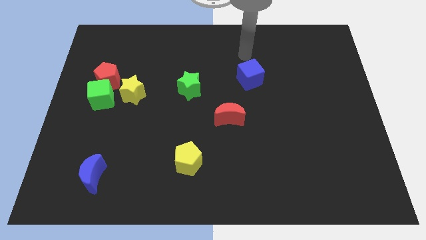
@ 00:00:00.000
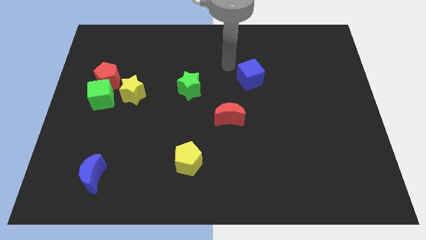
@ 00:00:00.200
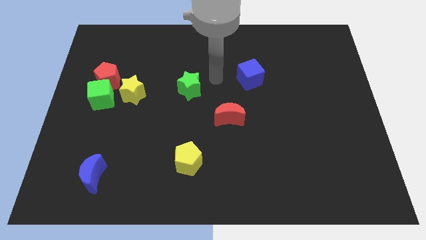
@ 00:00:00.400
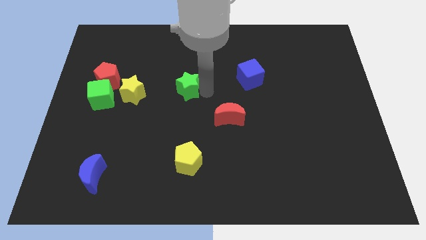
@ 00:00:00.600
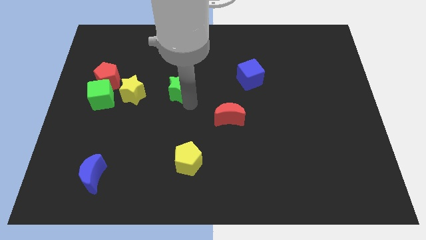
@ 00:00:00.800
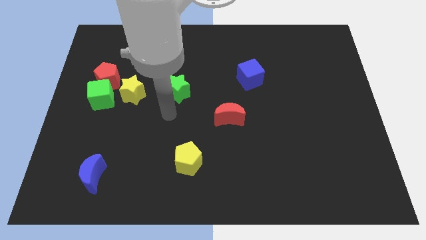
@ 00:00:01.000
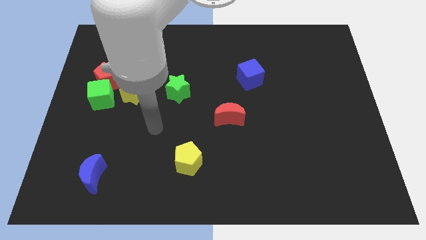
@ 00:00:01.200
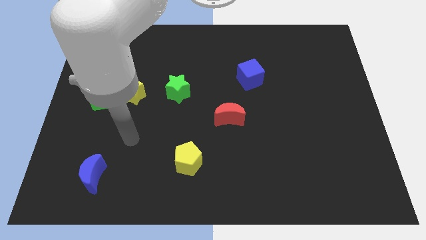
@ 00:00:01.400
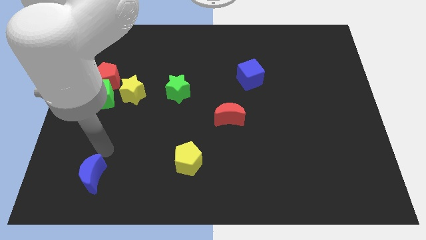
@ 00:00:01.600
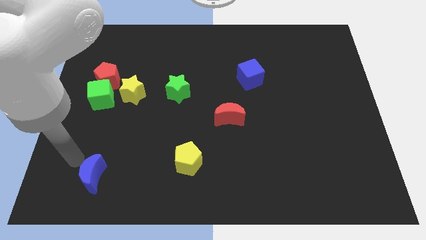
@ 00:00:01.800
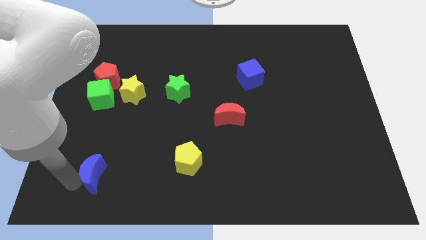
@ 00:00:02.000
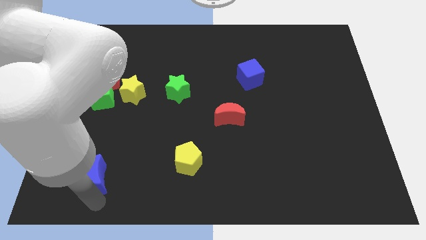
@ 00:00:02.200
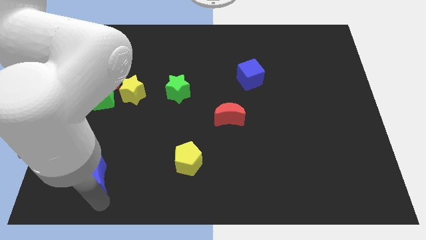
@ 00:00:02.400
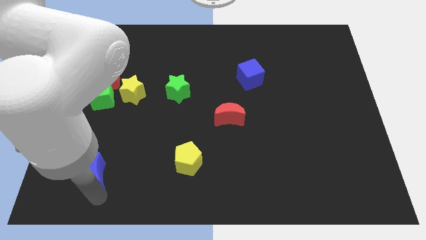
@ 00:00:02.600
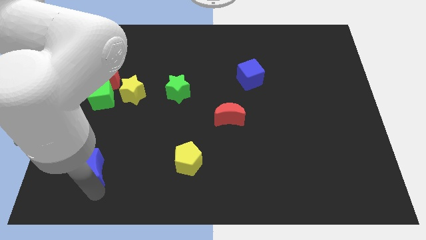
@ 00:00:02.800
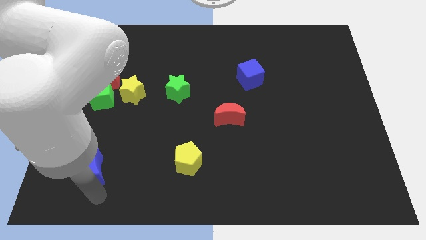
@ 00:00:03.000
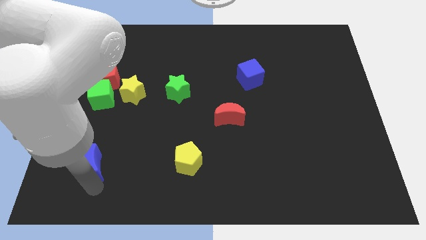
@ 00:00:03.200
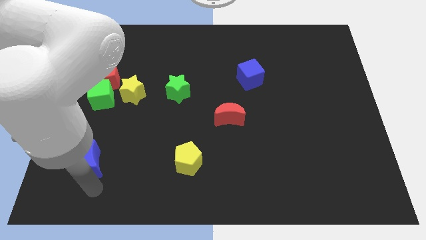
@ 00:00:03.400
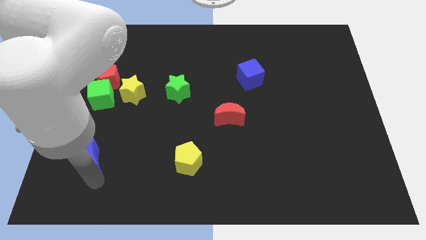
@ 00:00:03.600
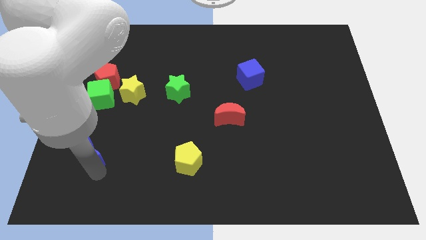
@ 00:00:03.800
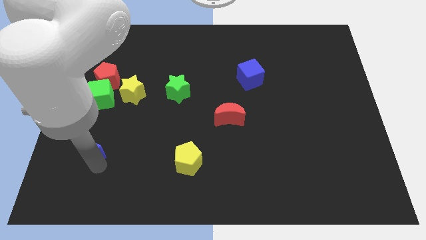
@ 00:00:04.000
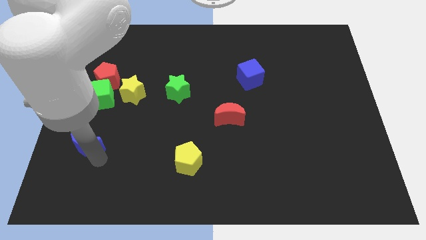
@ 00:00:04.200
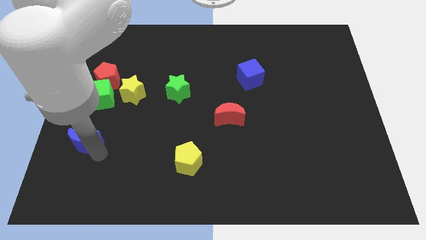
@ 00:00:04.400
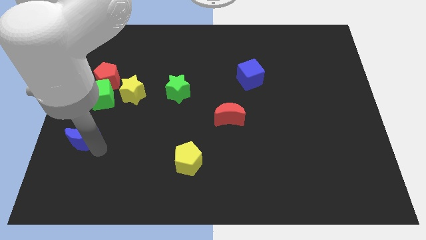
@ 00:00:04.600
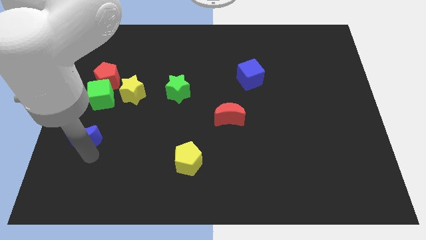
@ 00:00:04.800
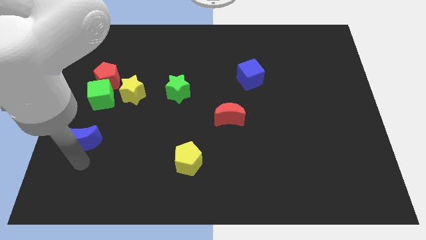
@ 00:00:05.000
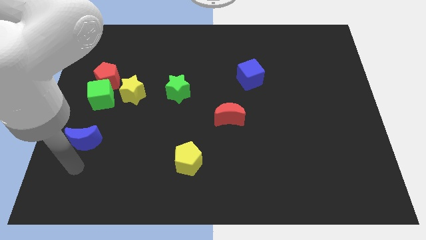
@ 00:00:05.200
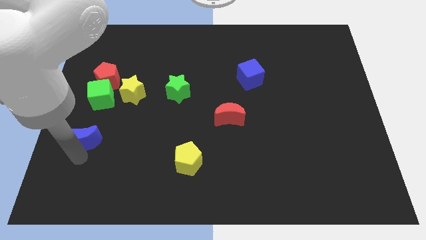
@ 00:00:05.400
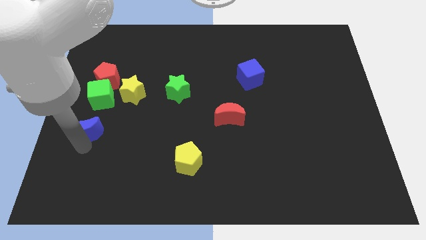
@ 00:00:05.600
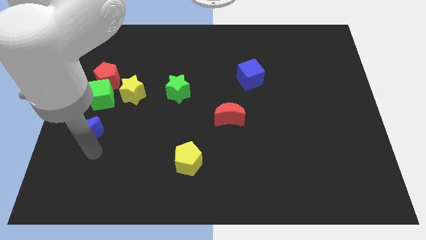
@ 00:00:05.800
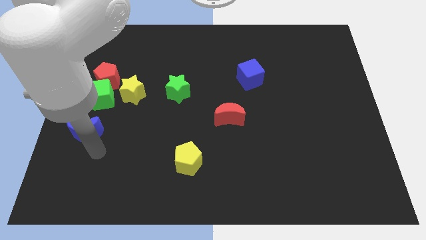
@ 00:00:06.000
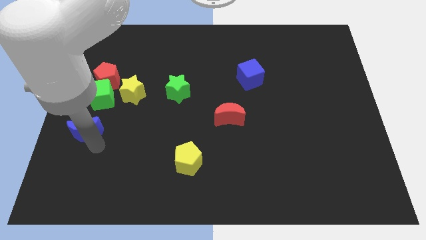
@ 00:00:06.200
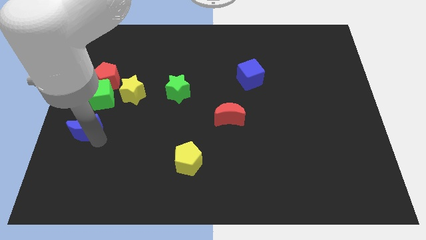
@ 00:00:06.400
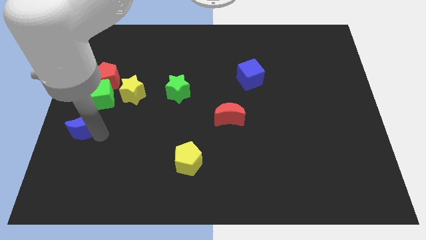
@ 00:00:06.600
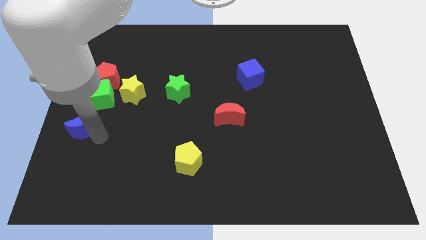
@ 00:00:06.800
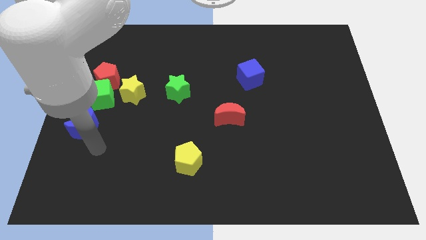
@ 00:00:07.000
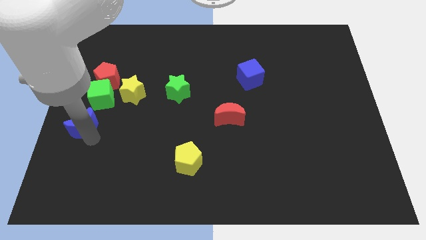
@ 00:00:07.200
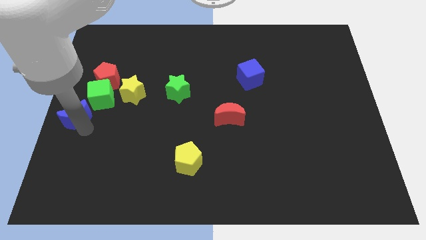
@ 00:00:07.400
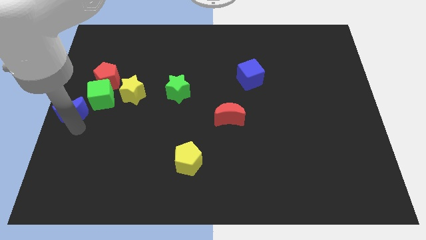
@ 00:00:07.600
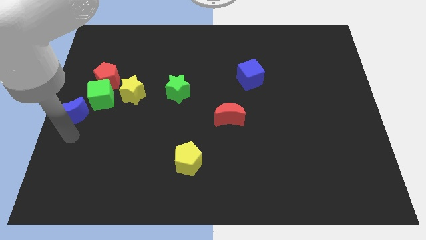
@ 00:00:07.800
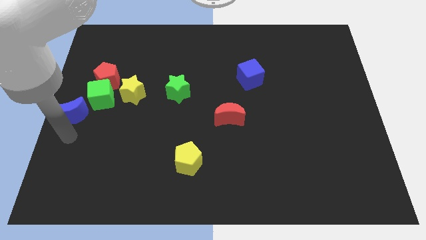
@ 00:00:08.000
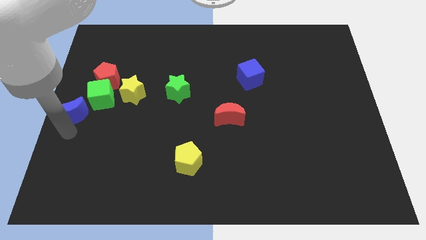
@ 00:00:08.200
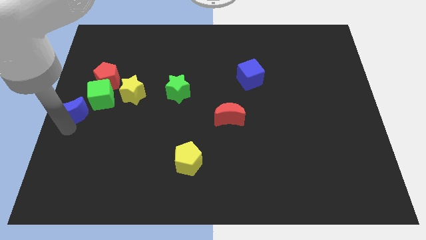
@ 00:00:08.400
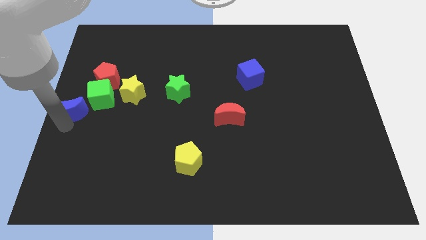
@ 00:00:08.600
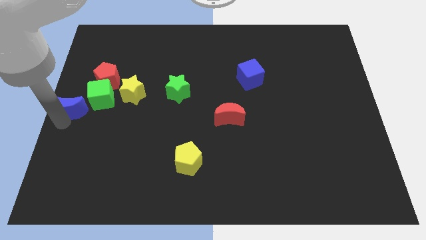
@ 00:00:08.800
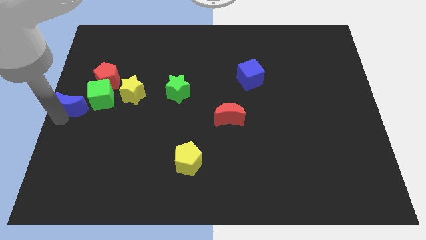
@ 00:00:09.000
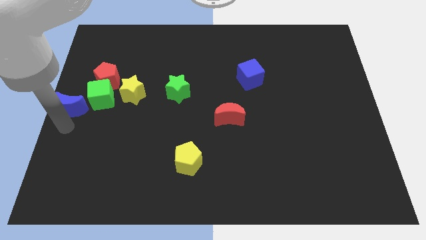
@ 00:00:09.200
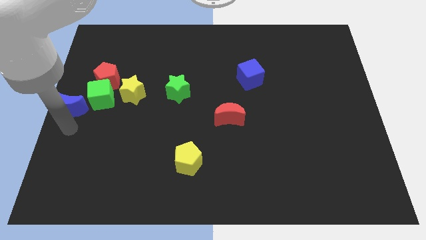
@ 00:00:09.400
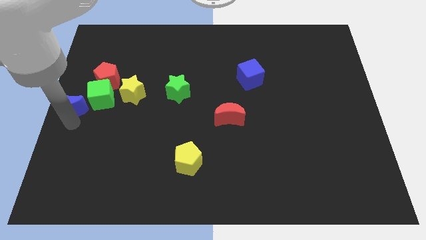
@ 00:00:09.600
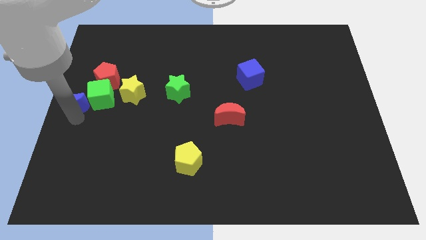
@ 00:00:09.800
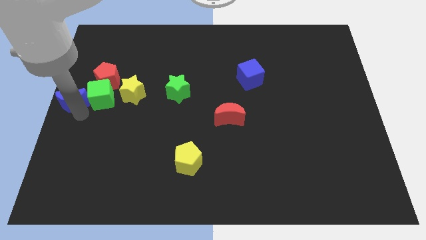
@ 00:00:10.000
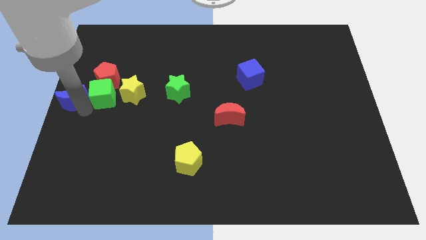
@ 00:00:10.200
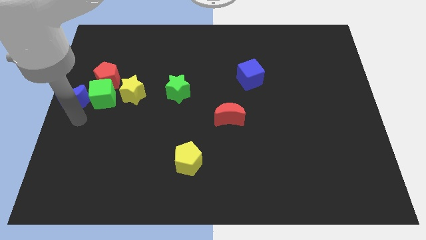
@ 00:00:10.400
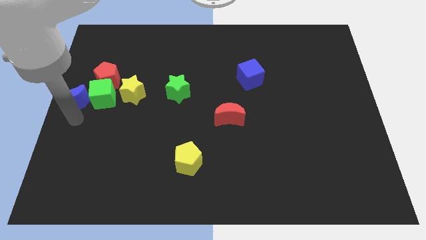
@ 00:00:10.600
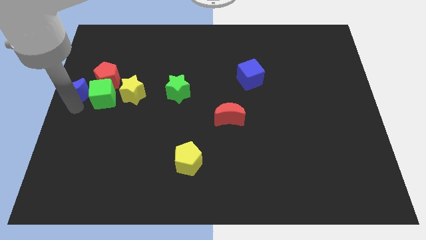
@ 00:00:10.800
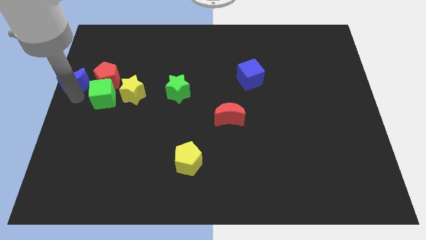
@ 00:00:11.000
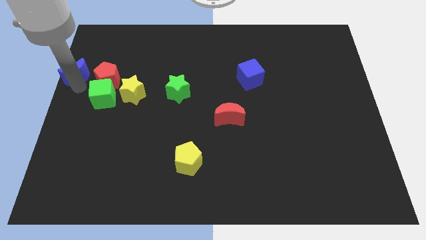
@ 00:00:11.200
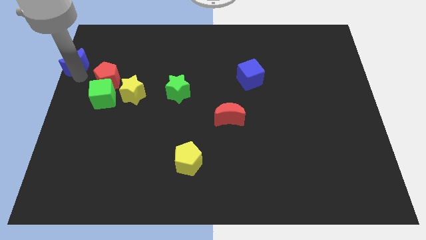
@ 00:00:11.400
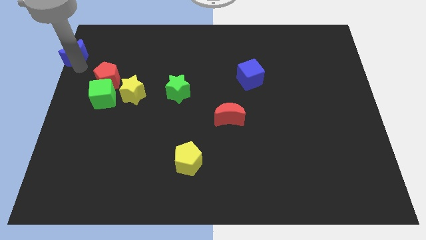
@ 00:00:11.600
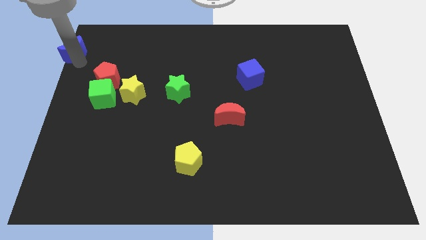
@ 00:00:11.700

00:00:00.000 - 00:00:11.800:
push the blue moon to the top left
